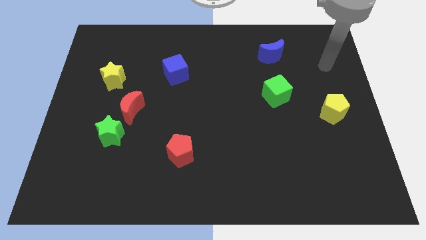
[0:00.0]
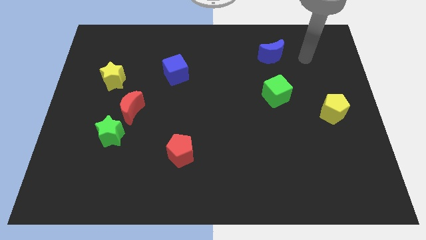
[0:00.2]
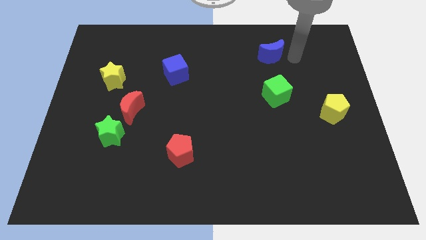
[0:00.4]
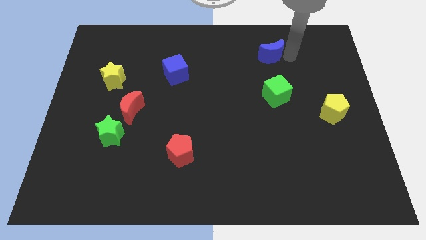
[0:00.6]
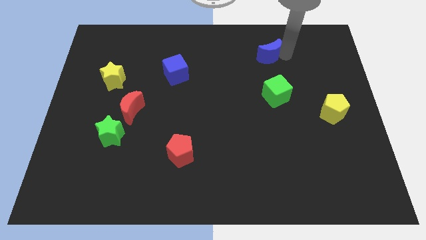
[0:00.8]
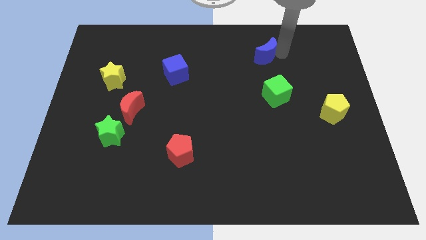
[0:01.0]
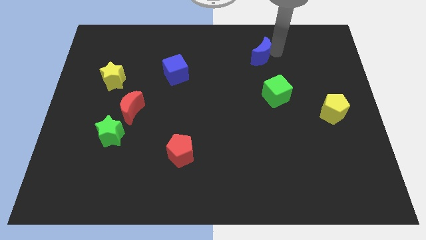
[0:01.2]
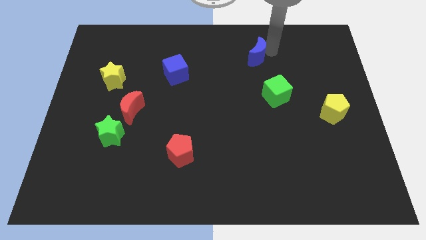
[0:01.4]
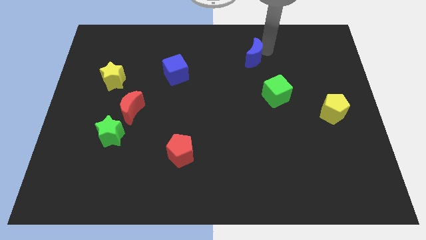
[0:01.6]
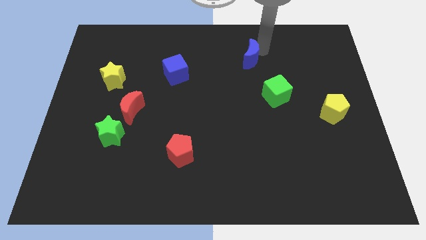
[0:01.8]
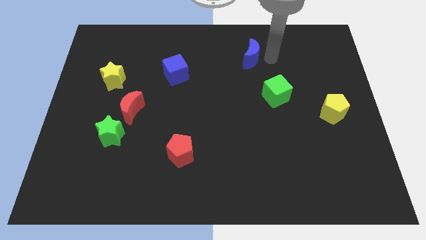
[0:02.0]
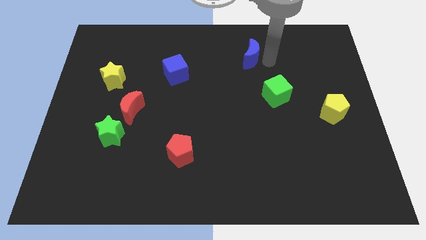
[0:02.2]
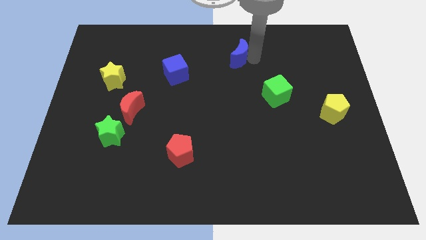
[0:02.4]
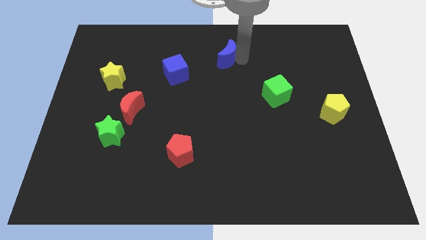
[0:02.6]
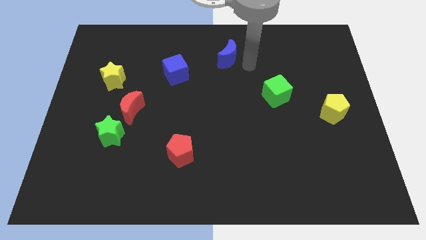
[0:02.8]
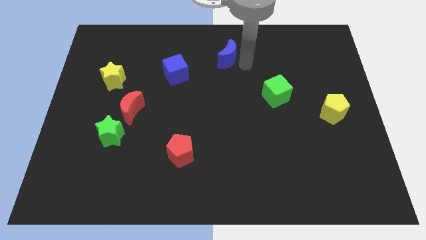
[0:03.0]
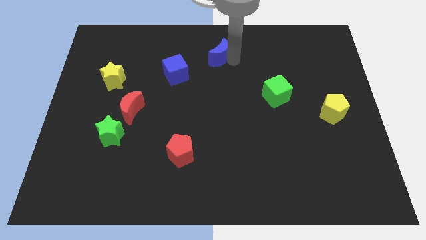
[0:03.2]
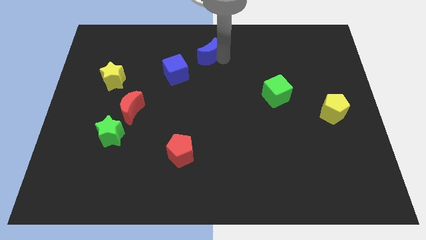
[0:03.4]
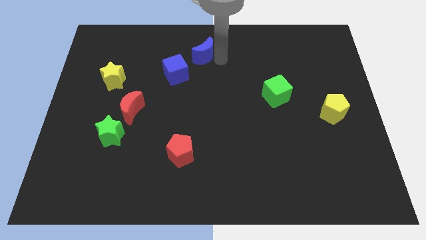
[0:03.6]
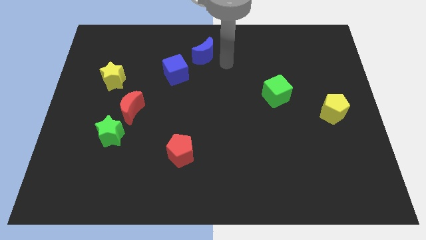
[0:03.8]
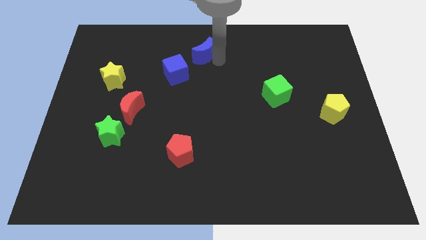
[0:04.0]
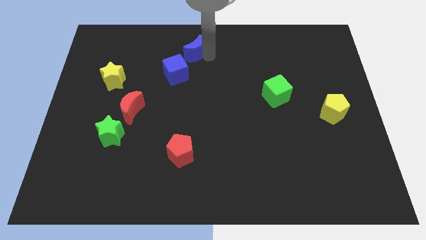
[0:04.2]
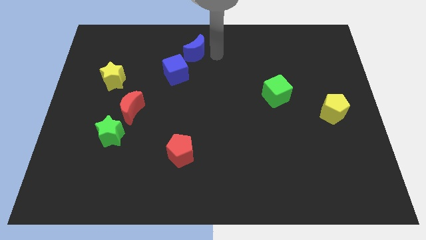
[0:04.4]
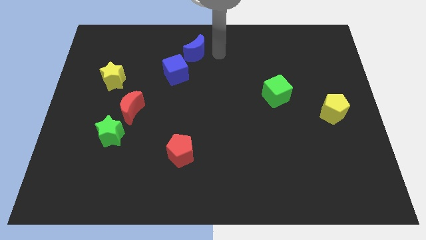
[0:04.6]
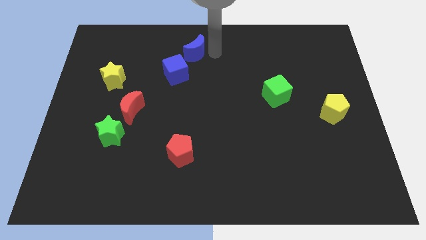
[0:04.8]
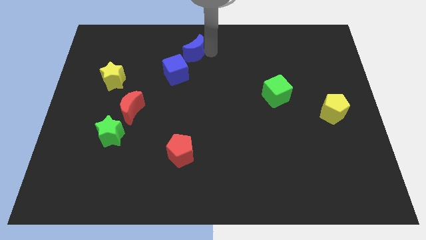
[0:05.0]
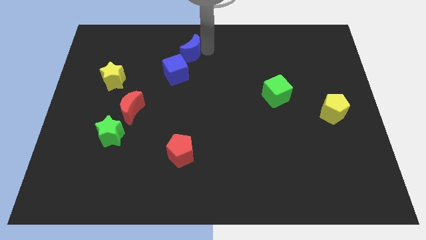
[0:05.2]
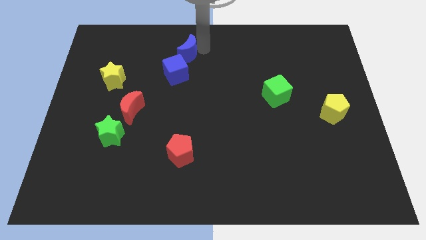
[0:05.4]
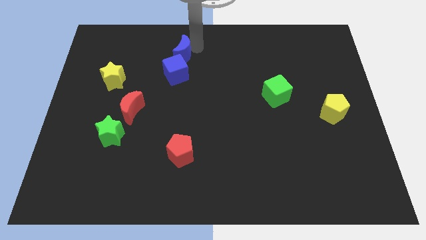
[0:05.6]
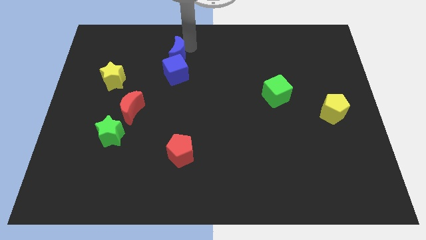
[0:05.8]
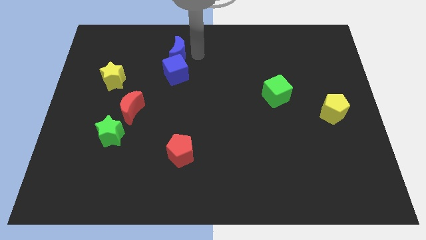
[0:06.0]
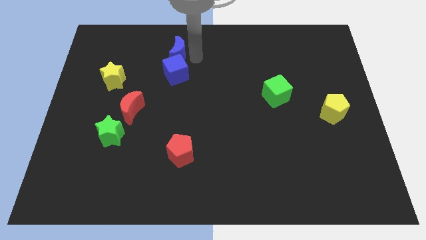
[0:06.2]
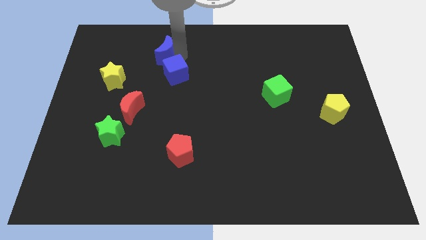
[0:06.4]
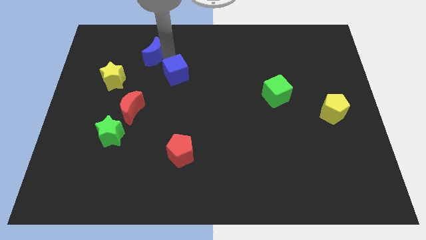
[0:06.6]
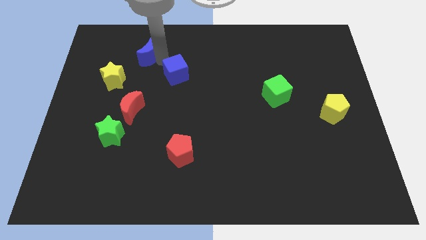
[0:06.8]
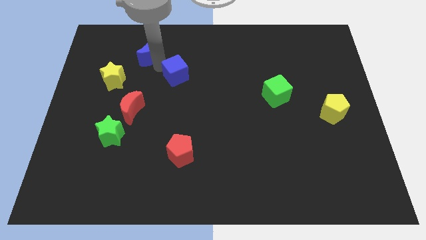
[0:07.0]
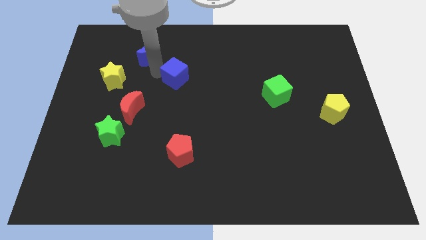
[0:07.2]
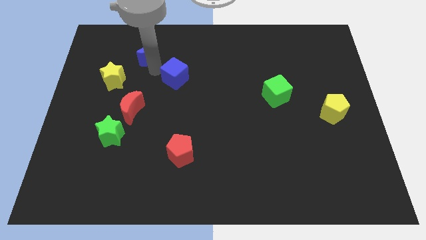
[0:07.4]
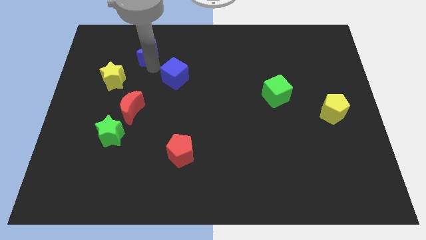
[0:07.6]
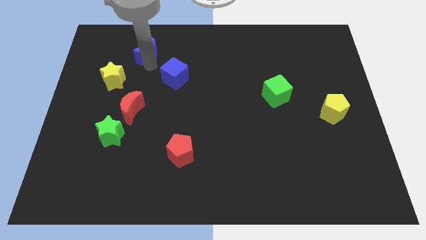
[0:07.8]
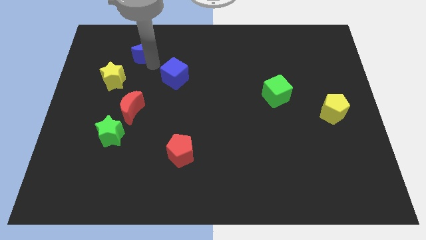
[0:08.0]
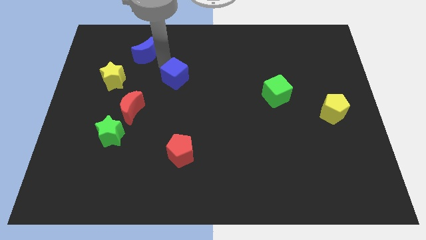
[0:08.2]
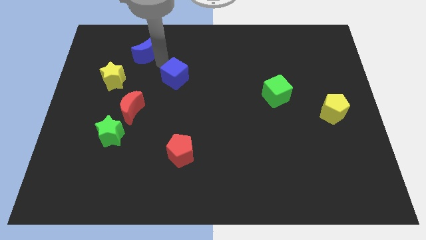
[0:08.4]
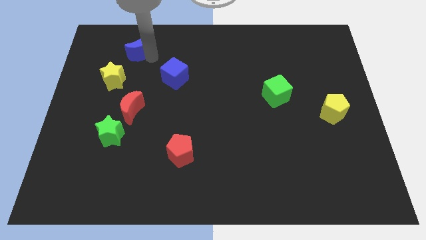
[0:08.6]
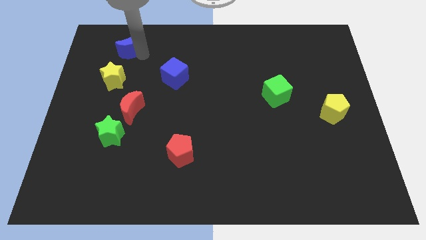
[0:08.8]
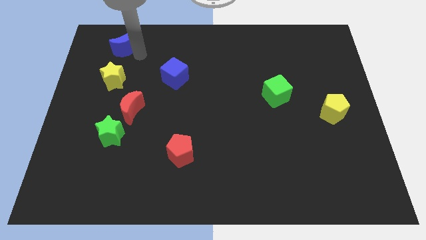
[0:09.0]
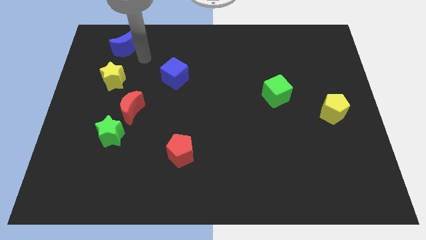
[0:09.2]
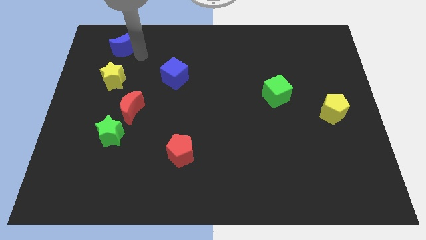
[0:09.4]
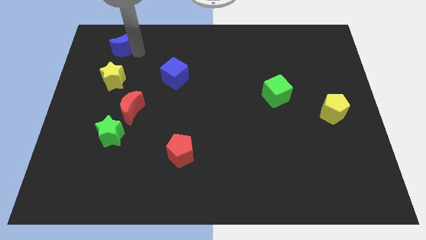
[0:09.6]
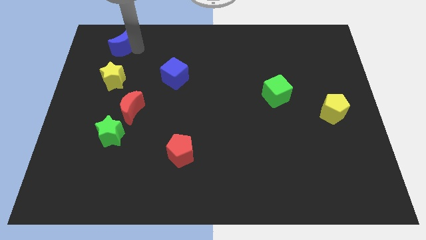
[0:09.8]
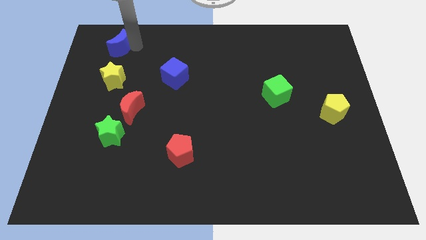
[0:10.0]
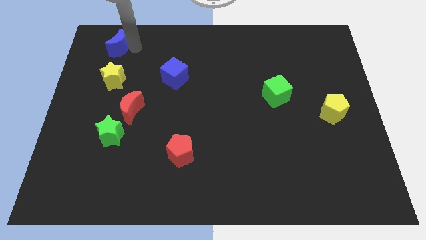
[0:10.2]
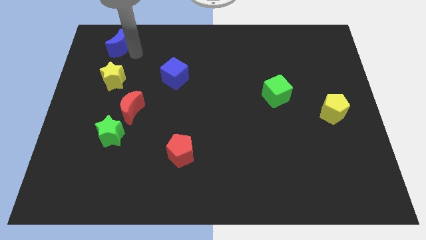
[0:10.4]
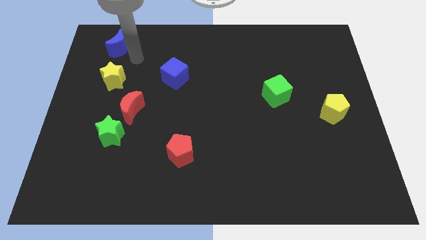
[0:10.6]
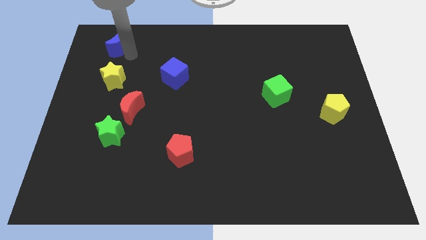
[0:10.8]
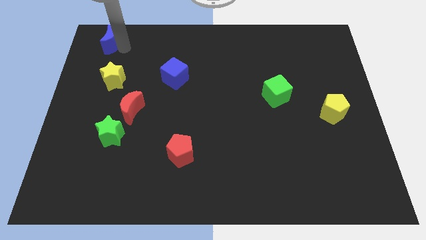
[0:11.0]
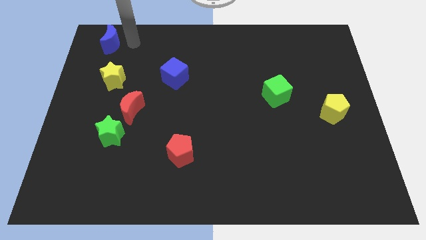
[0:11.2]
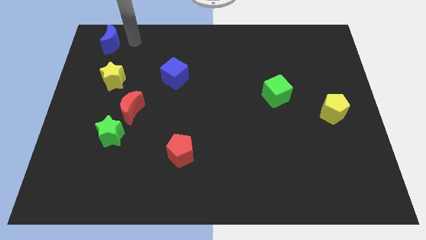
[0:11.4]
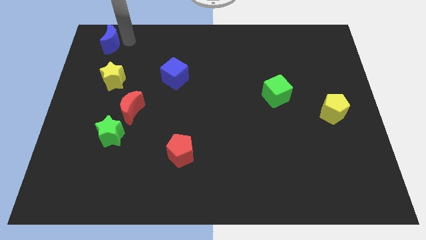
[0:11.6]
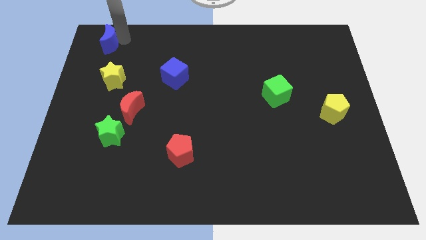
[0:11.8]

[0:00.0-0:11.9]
move the blue moon to the top left

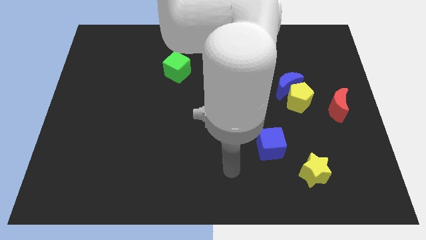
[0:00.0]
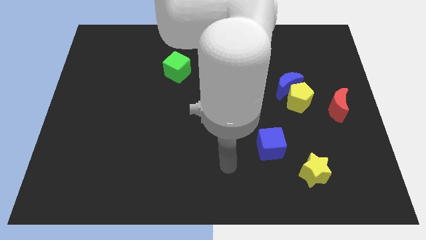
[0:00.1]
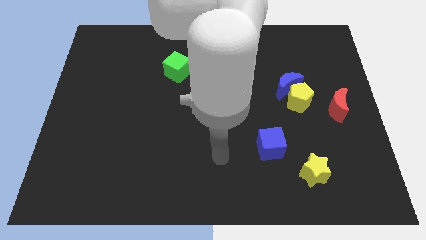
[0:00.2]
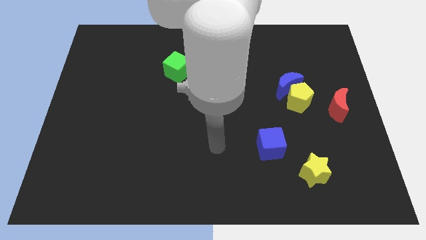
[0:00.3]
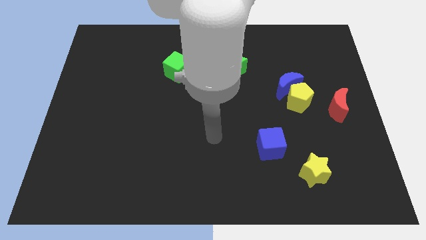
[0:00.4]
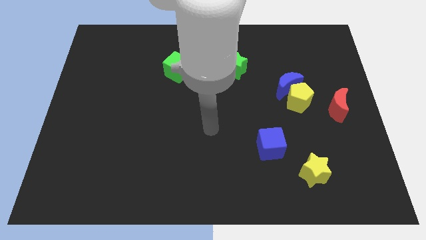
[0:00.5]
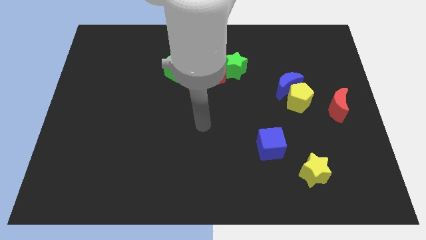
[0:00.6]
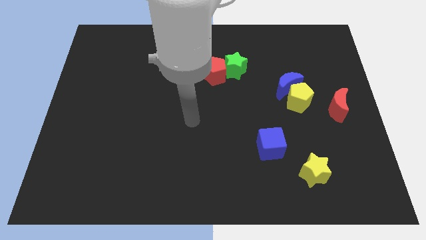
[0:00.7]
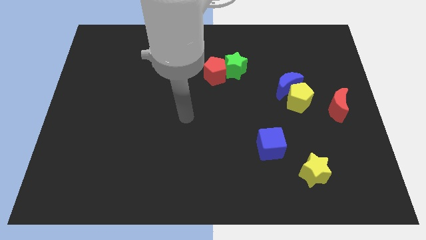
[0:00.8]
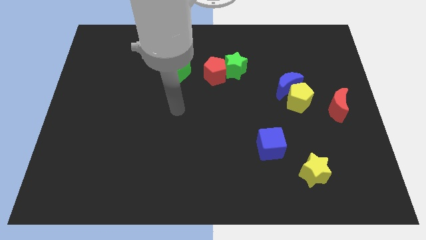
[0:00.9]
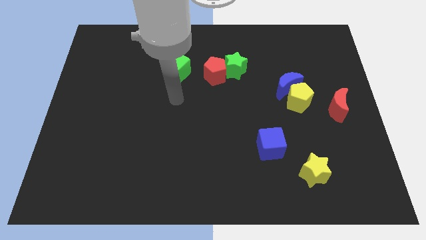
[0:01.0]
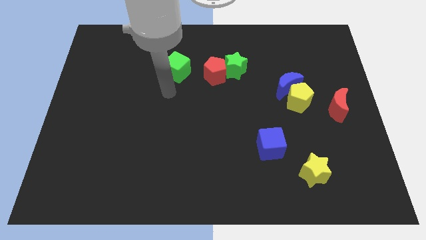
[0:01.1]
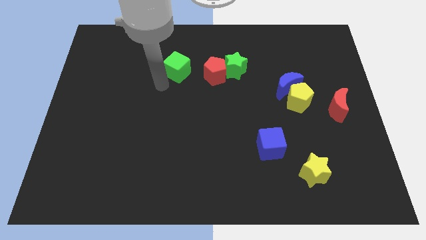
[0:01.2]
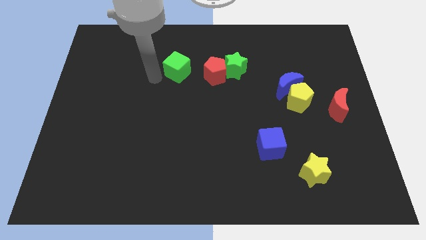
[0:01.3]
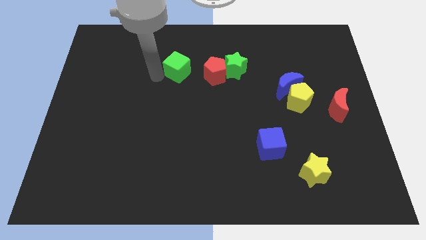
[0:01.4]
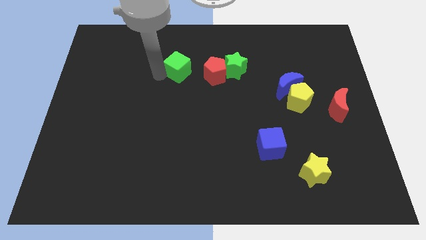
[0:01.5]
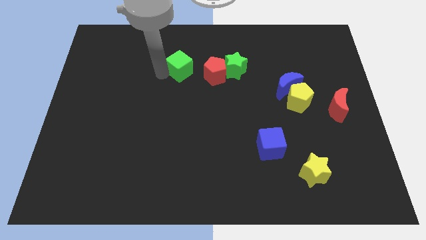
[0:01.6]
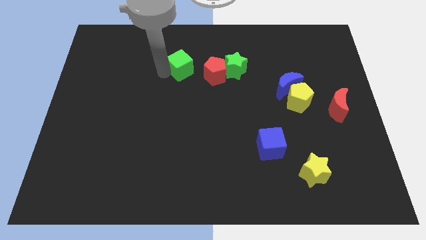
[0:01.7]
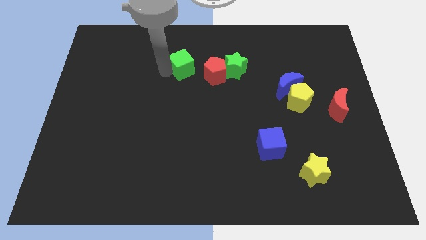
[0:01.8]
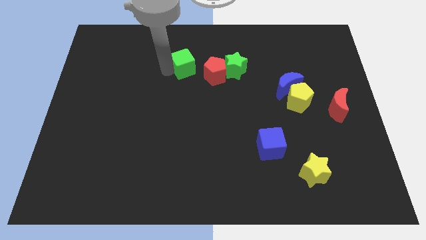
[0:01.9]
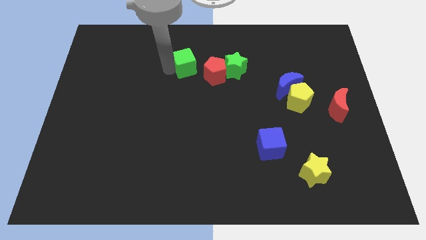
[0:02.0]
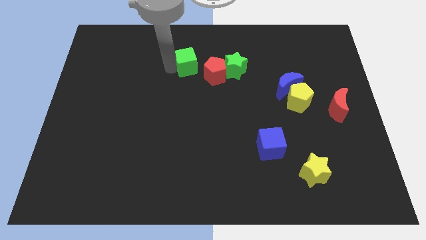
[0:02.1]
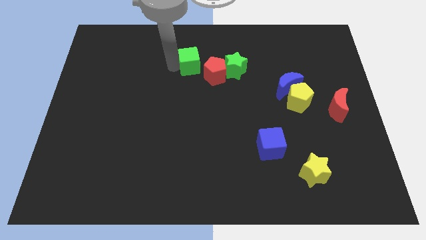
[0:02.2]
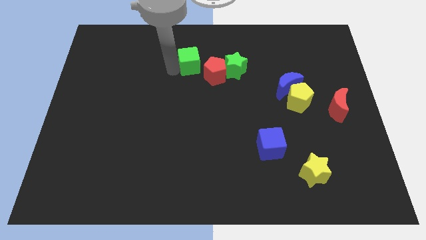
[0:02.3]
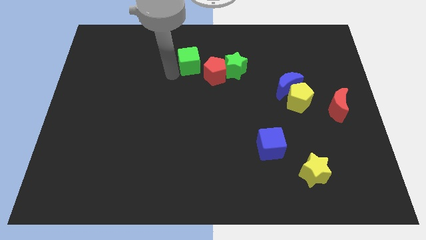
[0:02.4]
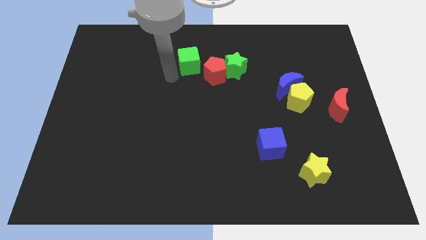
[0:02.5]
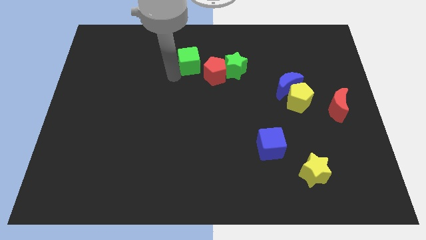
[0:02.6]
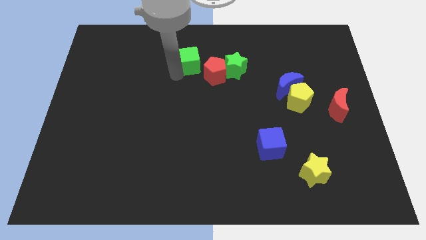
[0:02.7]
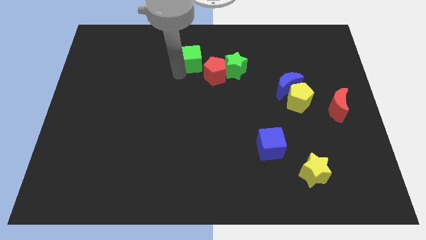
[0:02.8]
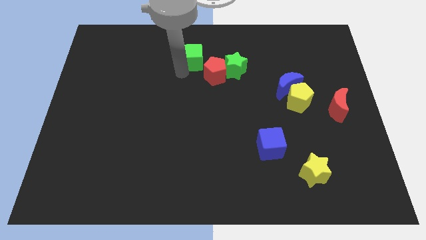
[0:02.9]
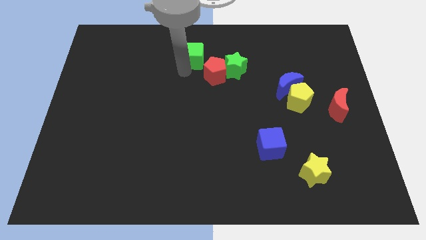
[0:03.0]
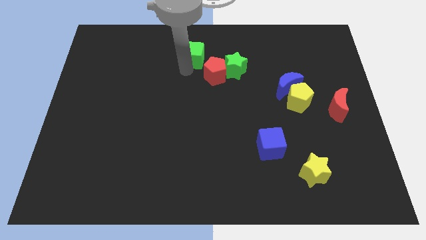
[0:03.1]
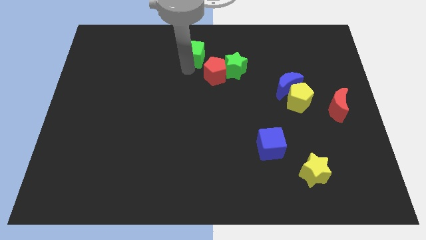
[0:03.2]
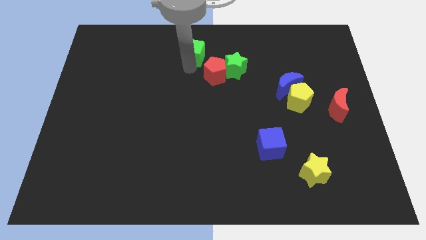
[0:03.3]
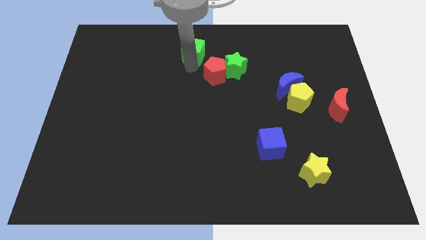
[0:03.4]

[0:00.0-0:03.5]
push the green cube to the top
